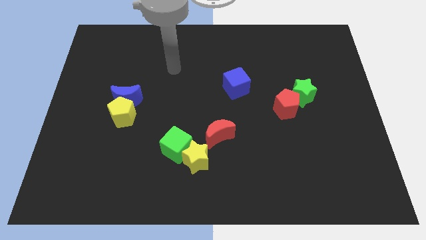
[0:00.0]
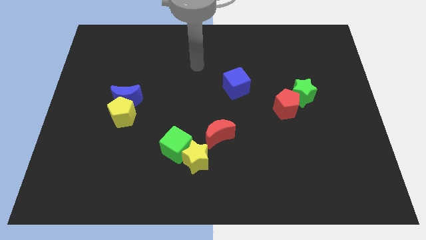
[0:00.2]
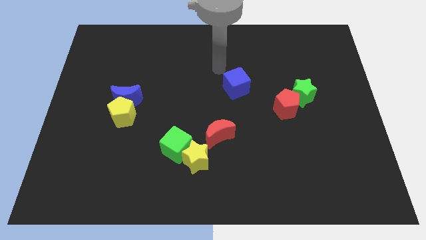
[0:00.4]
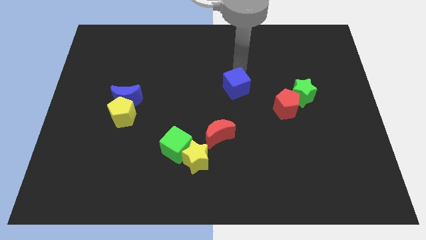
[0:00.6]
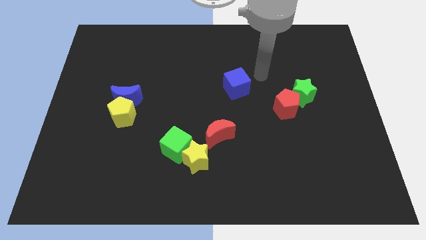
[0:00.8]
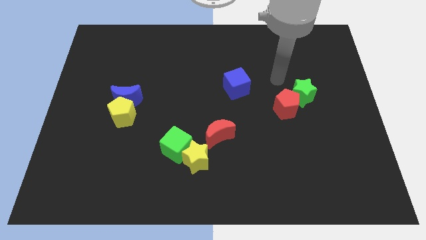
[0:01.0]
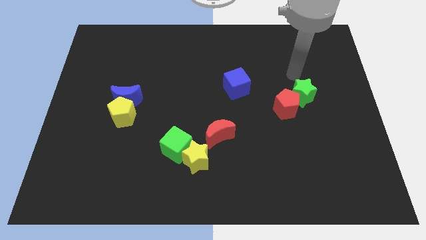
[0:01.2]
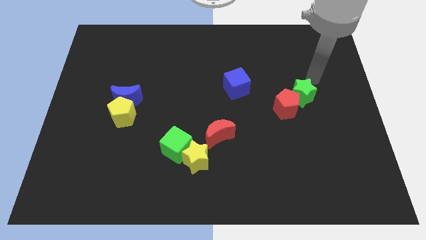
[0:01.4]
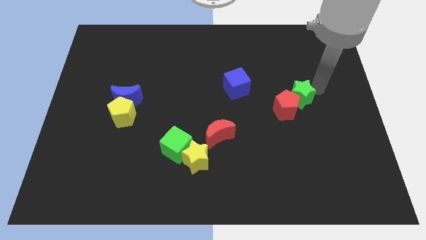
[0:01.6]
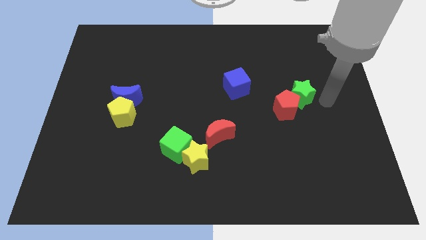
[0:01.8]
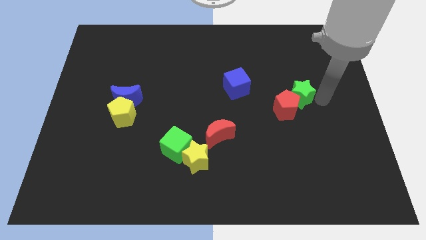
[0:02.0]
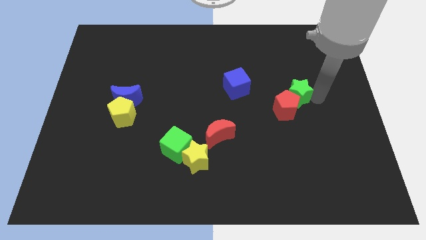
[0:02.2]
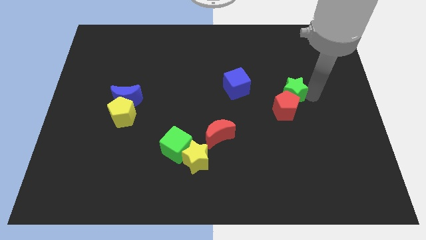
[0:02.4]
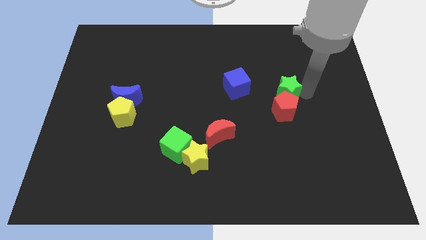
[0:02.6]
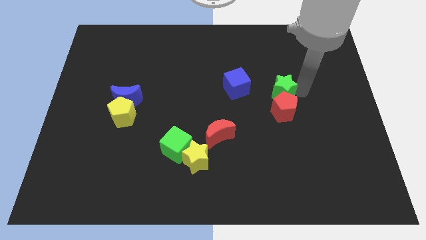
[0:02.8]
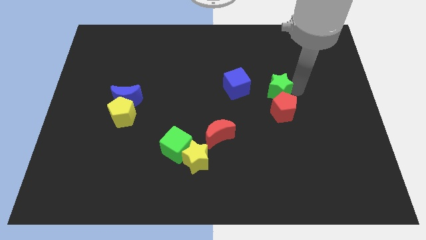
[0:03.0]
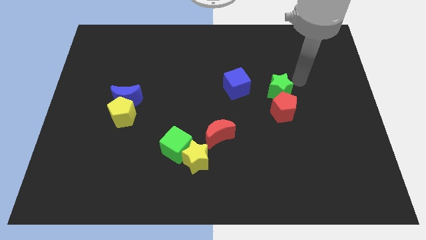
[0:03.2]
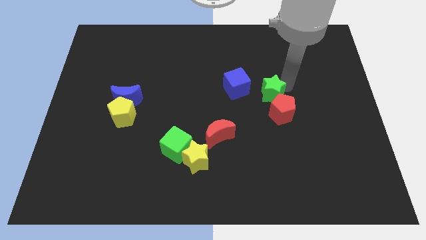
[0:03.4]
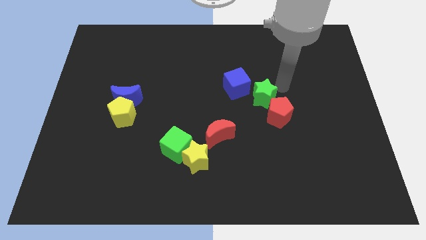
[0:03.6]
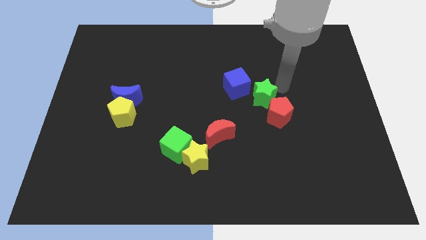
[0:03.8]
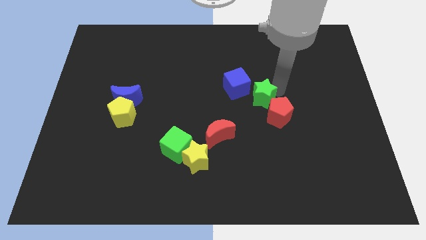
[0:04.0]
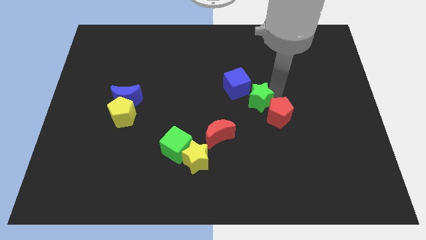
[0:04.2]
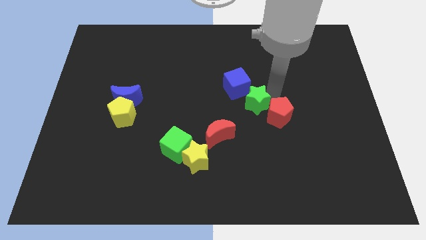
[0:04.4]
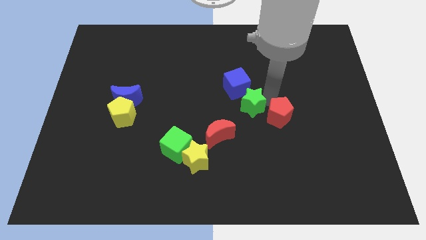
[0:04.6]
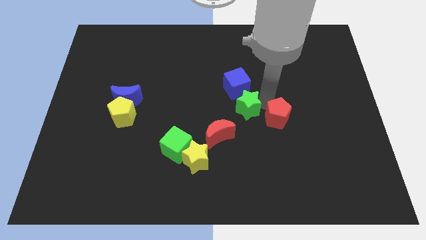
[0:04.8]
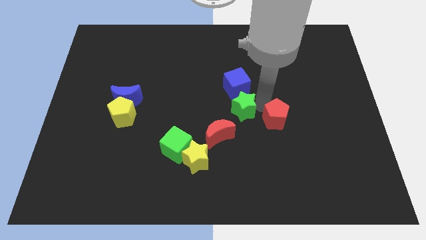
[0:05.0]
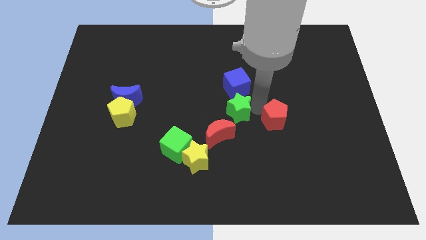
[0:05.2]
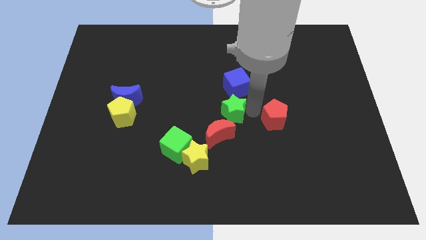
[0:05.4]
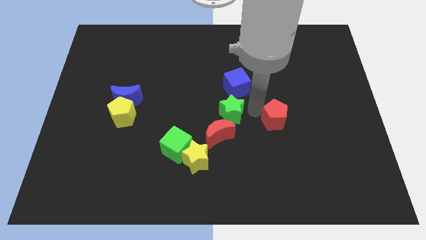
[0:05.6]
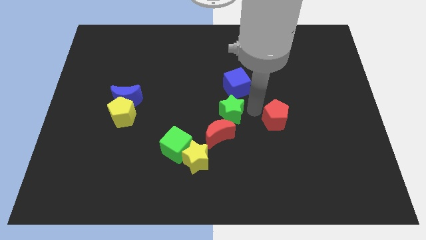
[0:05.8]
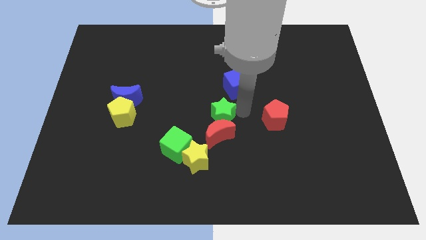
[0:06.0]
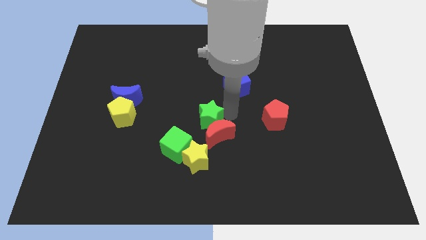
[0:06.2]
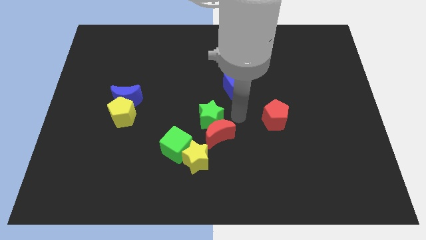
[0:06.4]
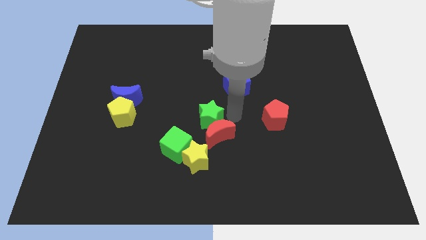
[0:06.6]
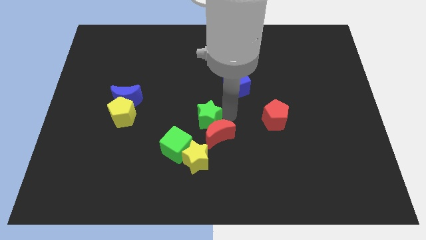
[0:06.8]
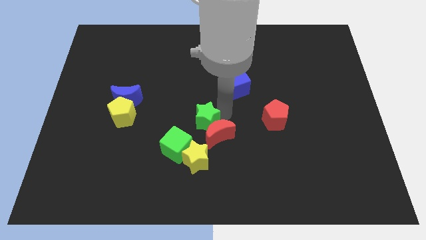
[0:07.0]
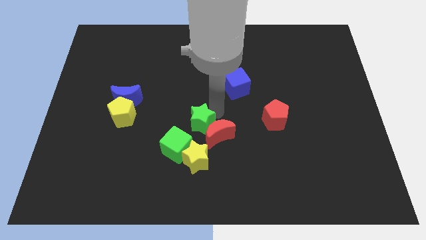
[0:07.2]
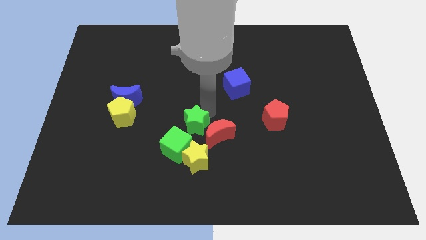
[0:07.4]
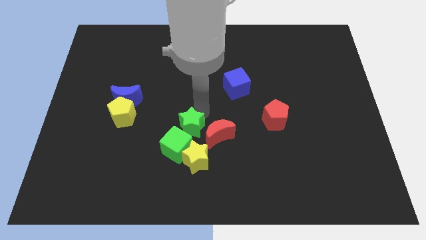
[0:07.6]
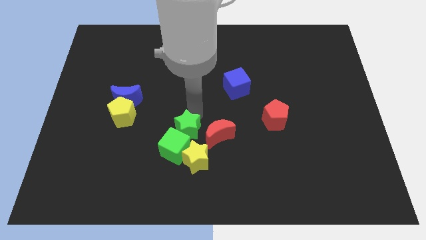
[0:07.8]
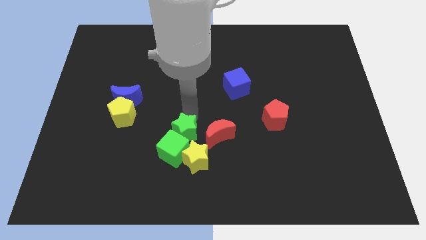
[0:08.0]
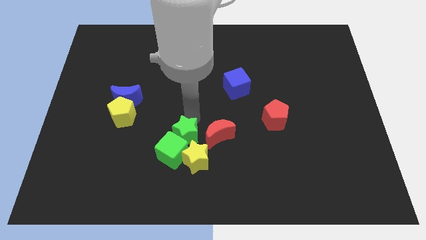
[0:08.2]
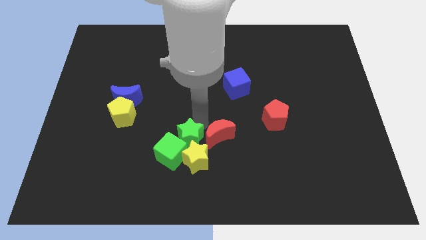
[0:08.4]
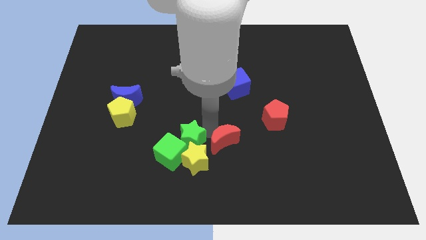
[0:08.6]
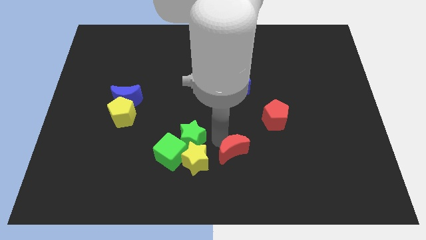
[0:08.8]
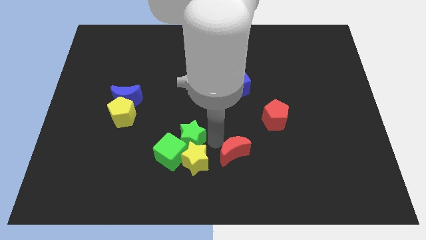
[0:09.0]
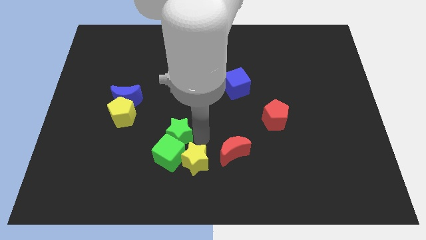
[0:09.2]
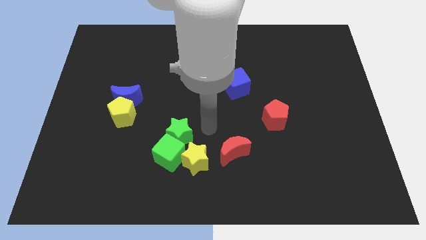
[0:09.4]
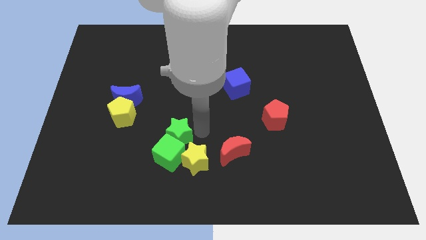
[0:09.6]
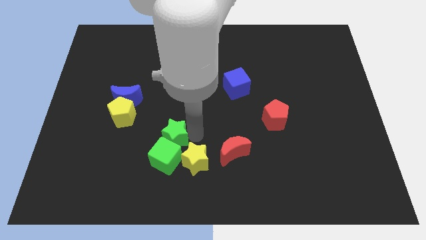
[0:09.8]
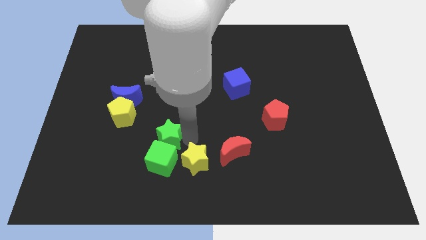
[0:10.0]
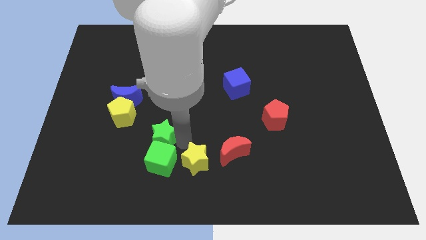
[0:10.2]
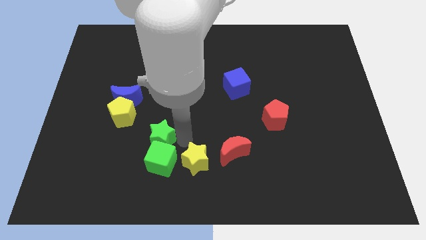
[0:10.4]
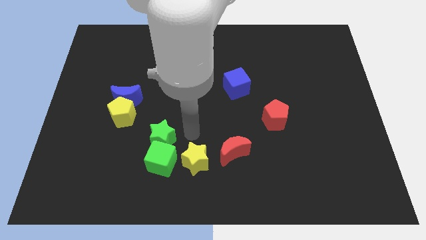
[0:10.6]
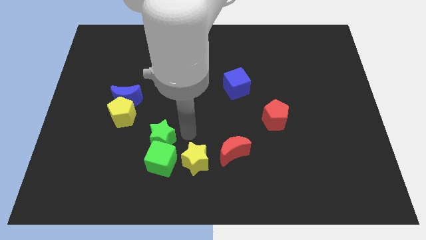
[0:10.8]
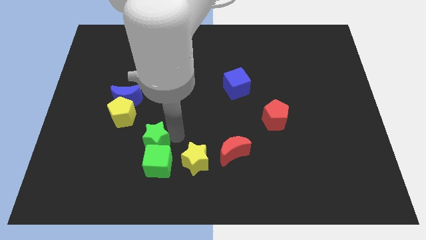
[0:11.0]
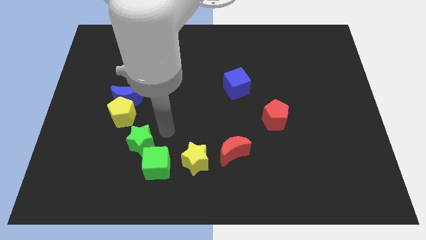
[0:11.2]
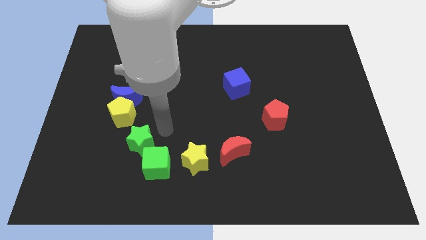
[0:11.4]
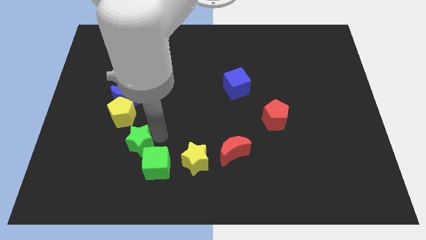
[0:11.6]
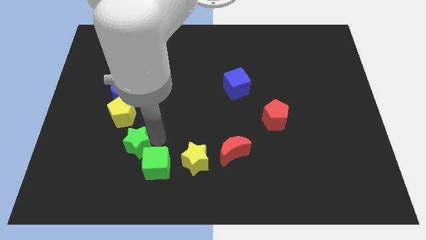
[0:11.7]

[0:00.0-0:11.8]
slide the green star to the left of the green cube

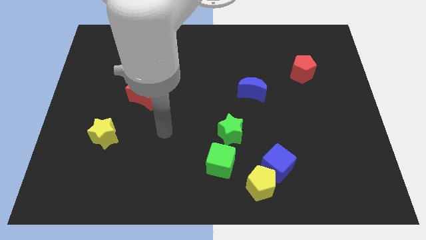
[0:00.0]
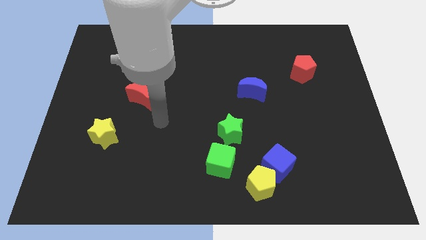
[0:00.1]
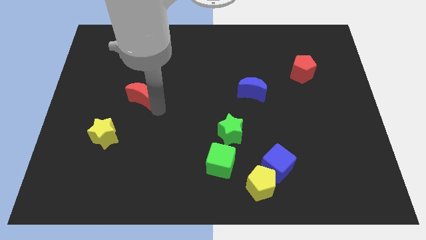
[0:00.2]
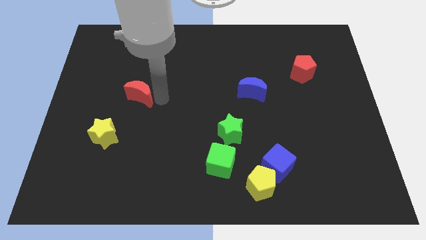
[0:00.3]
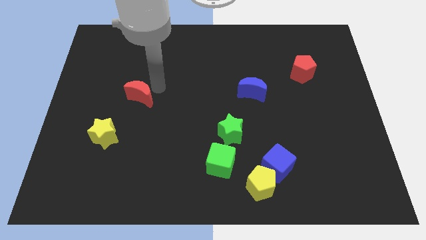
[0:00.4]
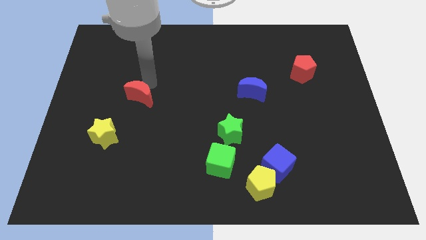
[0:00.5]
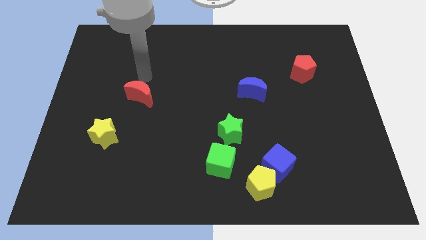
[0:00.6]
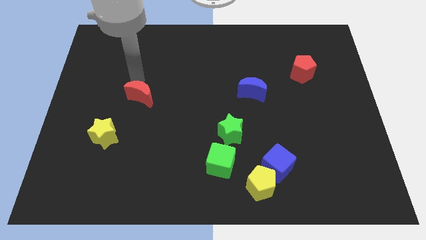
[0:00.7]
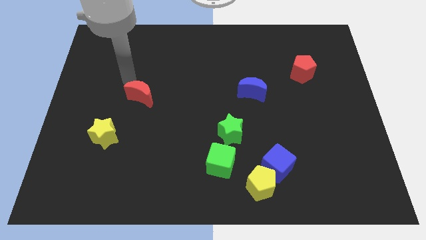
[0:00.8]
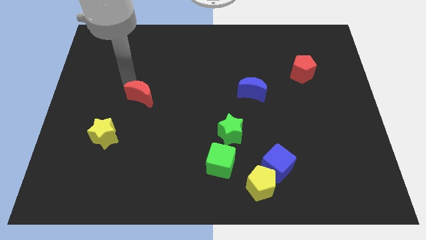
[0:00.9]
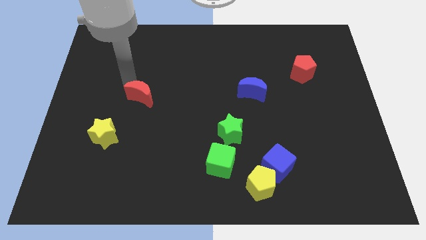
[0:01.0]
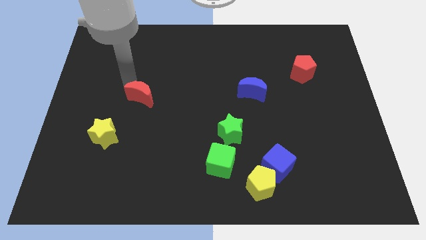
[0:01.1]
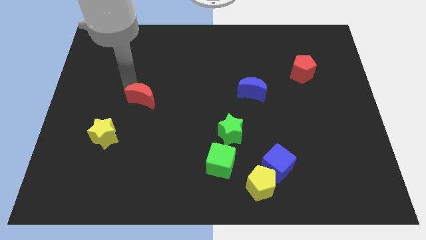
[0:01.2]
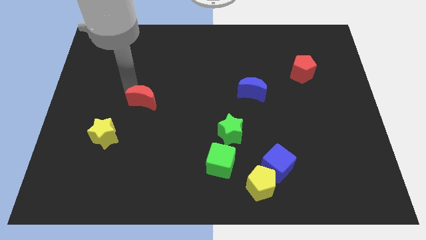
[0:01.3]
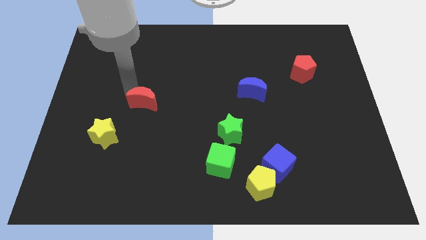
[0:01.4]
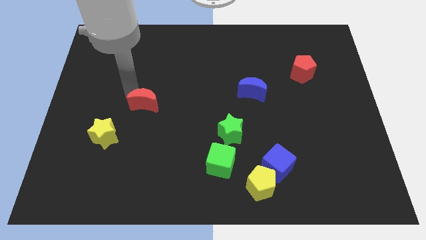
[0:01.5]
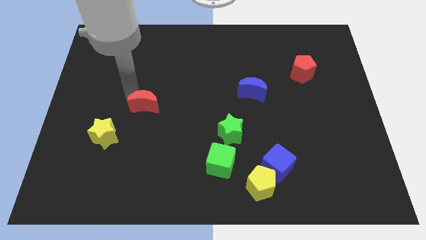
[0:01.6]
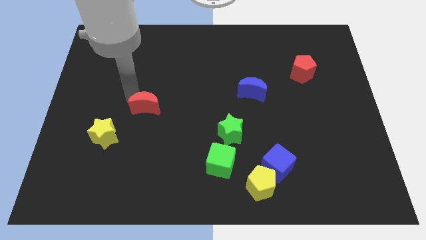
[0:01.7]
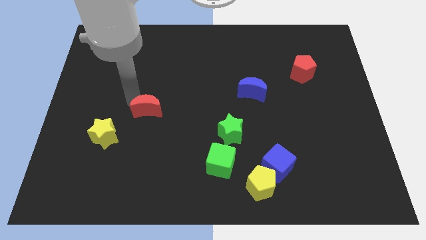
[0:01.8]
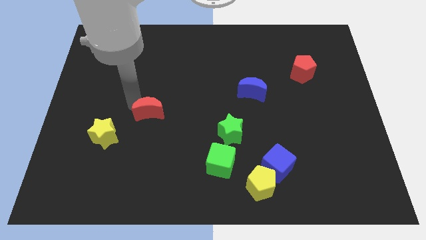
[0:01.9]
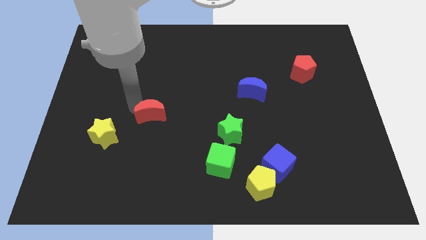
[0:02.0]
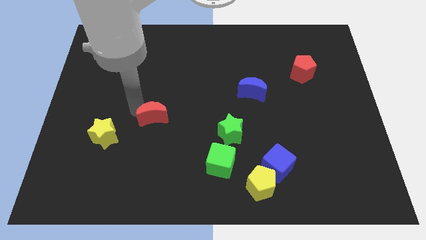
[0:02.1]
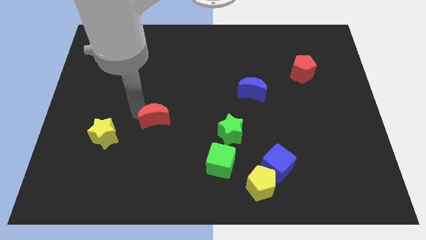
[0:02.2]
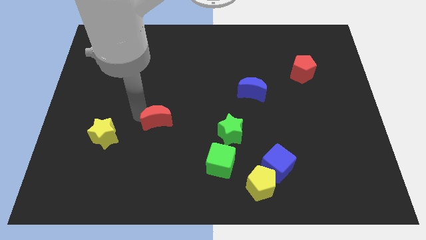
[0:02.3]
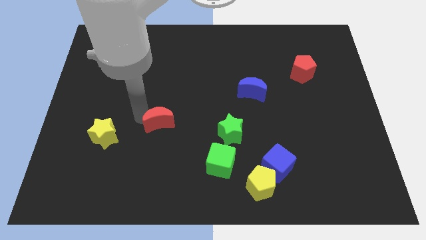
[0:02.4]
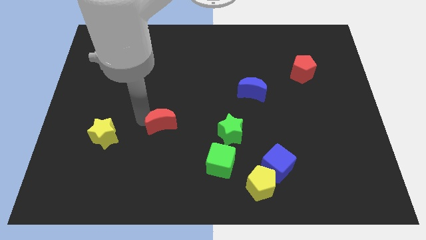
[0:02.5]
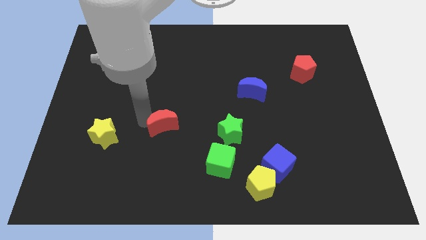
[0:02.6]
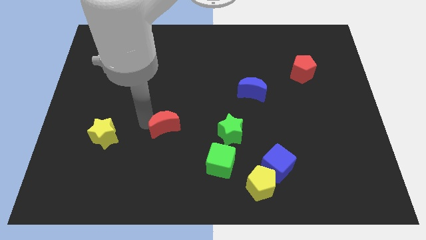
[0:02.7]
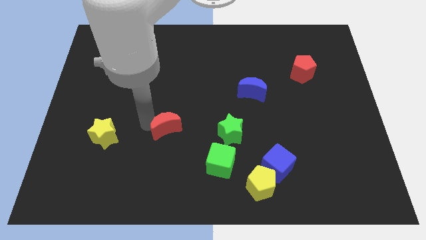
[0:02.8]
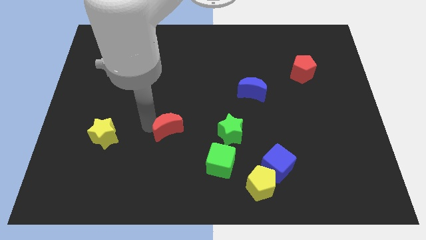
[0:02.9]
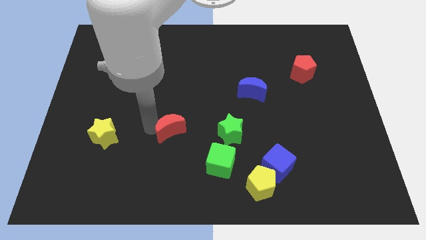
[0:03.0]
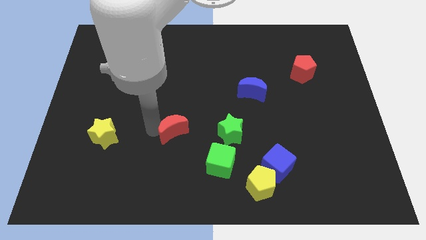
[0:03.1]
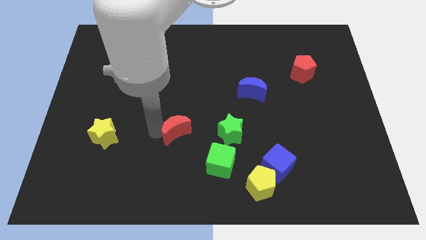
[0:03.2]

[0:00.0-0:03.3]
move the red moon to the top left of the green cube
